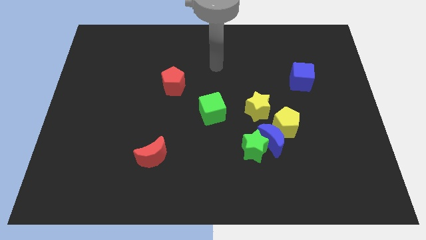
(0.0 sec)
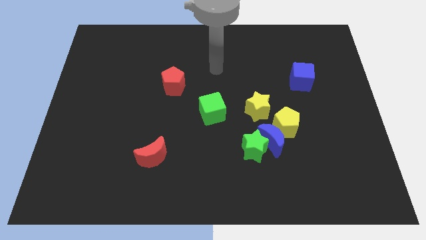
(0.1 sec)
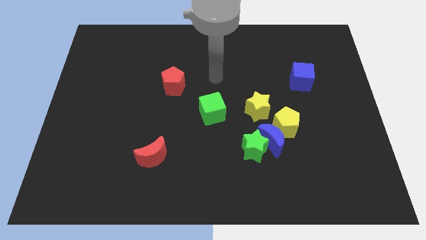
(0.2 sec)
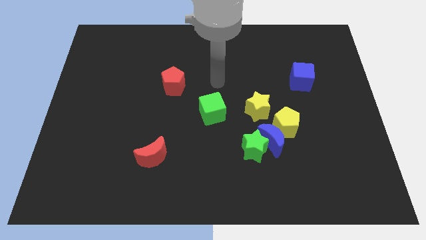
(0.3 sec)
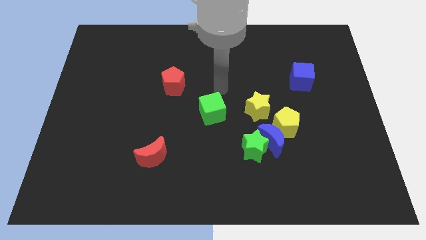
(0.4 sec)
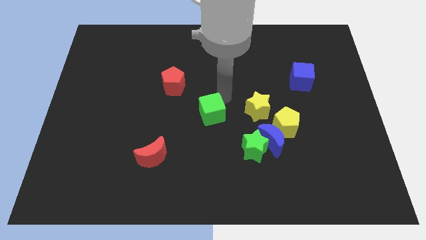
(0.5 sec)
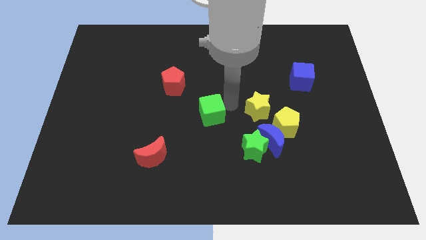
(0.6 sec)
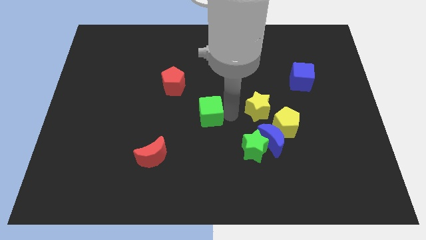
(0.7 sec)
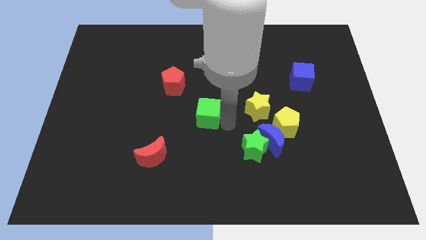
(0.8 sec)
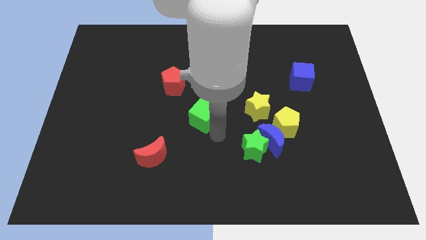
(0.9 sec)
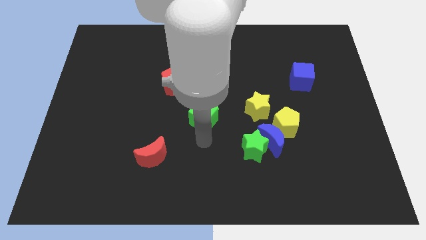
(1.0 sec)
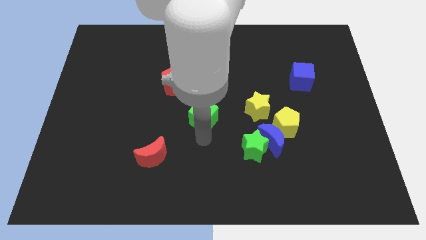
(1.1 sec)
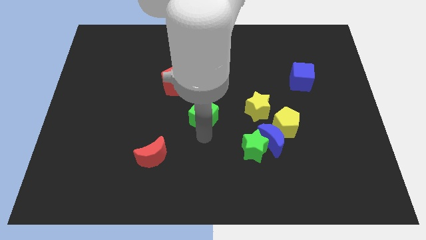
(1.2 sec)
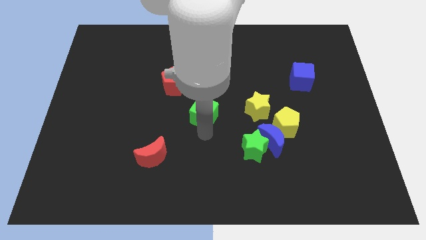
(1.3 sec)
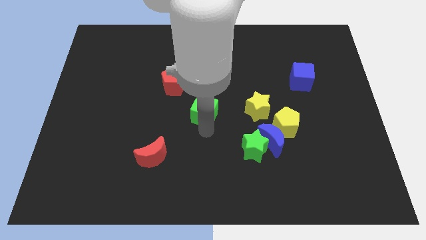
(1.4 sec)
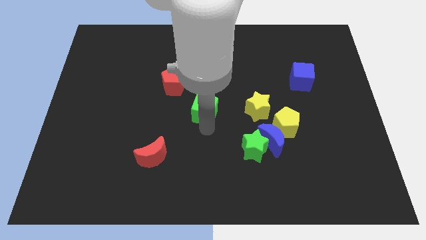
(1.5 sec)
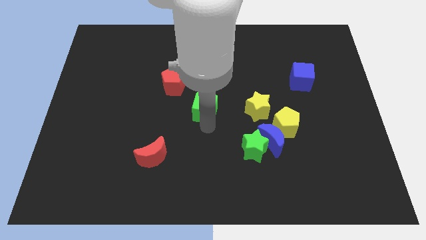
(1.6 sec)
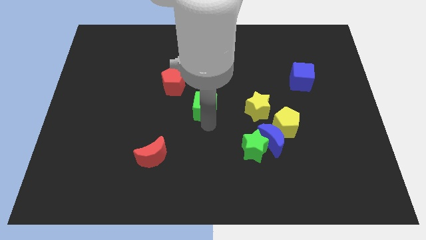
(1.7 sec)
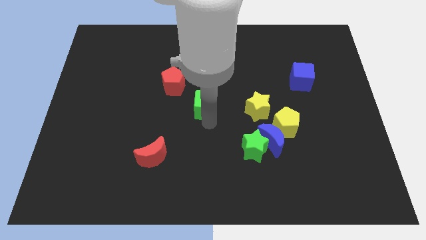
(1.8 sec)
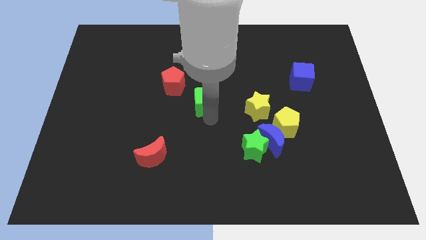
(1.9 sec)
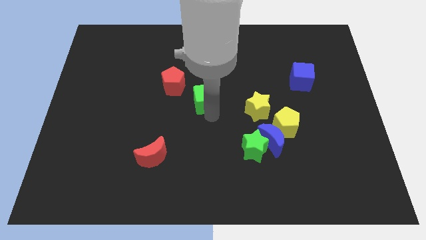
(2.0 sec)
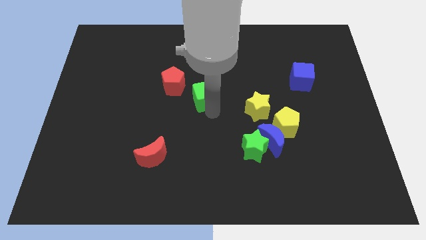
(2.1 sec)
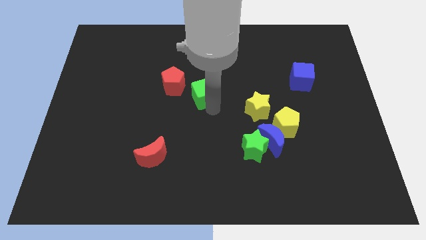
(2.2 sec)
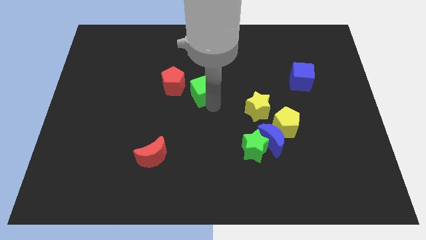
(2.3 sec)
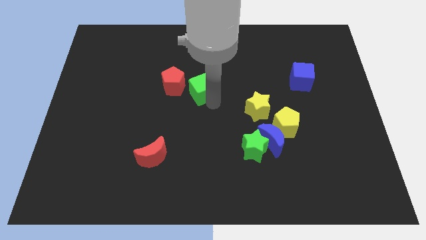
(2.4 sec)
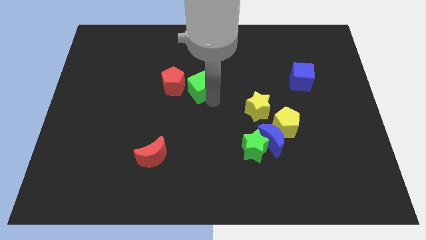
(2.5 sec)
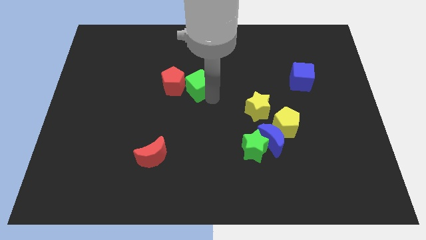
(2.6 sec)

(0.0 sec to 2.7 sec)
move the green cube a little up and left diagonally

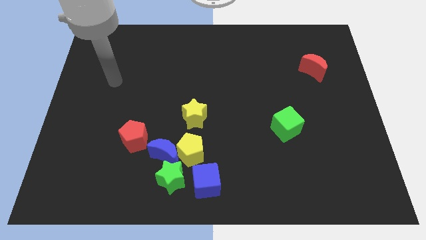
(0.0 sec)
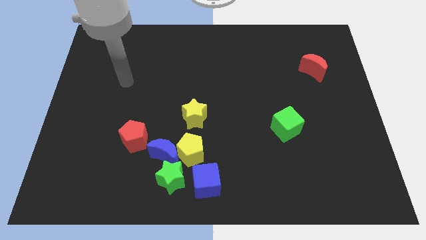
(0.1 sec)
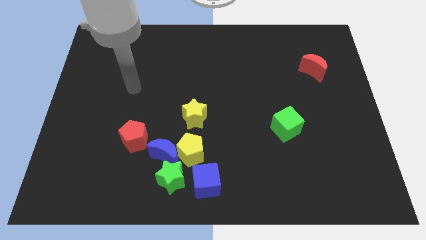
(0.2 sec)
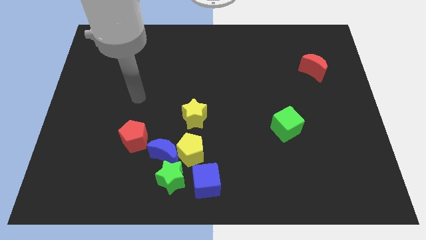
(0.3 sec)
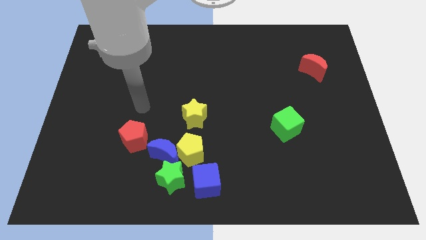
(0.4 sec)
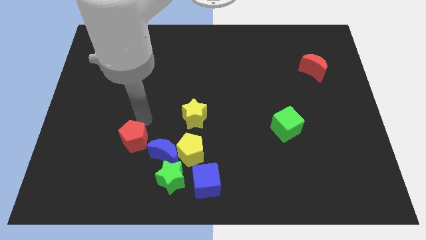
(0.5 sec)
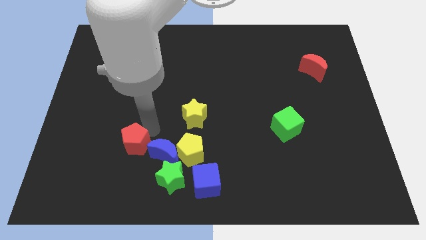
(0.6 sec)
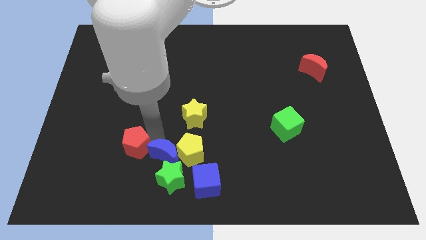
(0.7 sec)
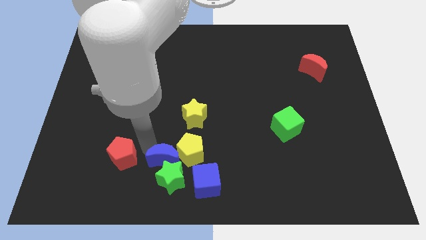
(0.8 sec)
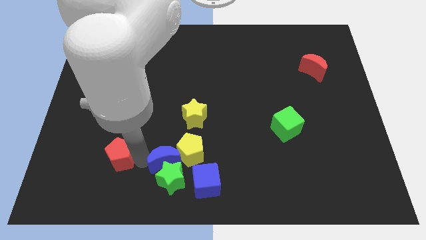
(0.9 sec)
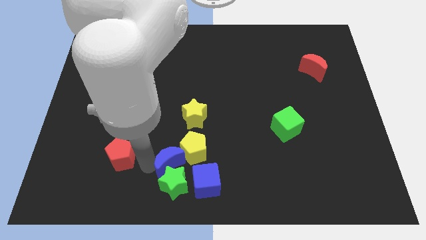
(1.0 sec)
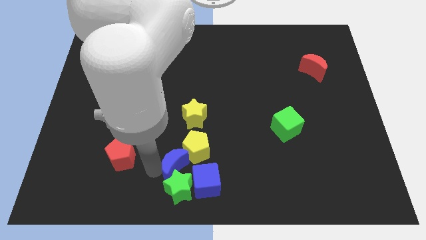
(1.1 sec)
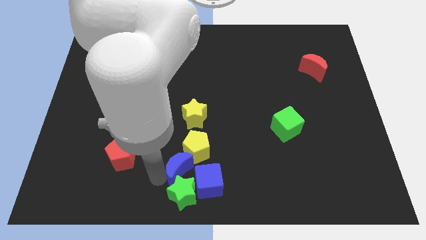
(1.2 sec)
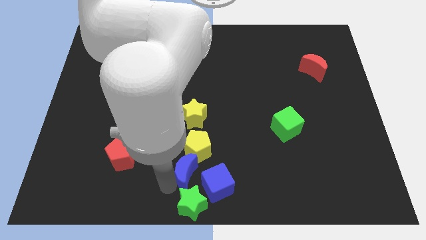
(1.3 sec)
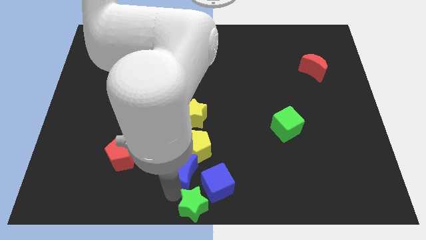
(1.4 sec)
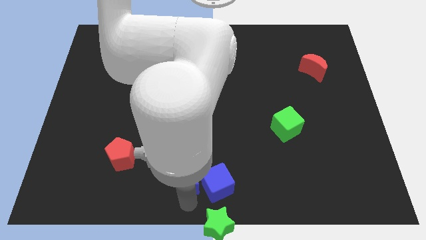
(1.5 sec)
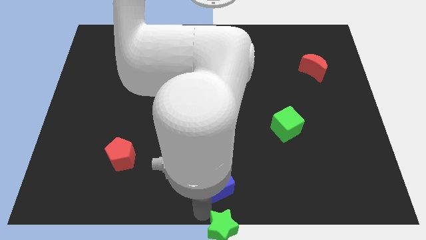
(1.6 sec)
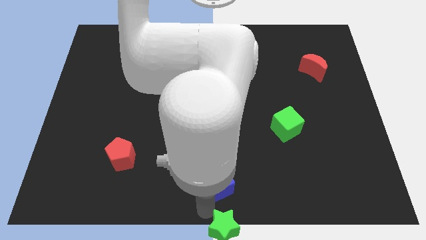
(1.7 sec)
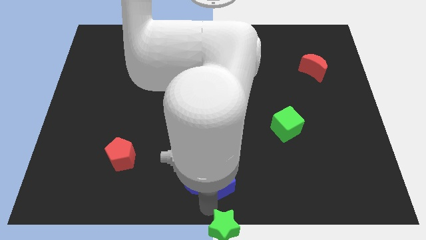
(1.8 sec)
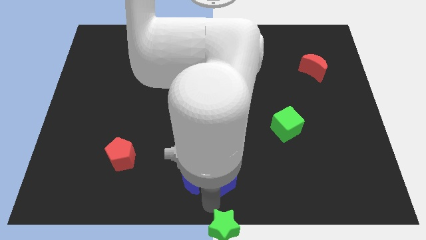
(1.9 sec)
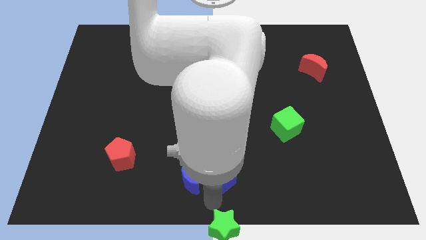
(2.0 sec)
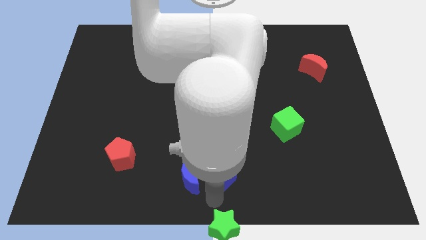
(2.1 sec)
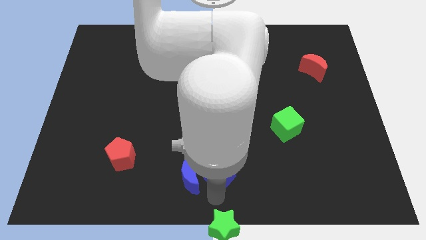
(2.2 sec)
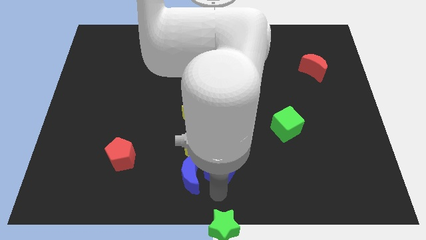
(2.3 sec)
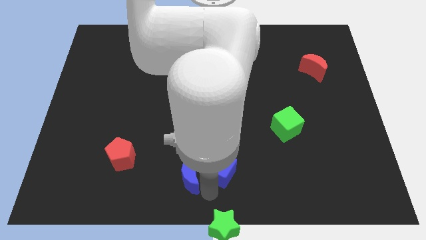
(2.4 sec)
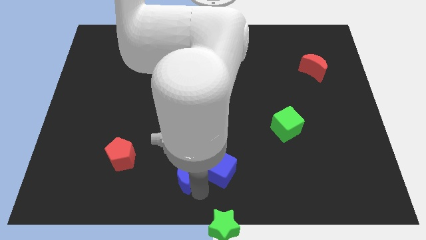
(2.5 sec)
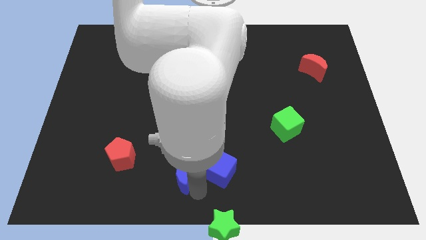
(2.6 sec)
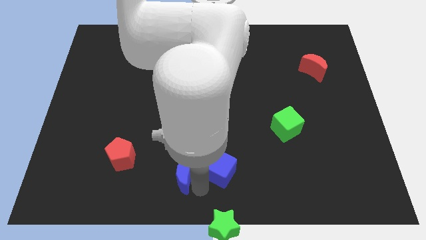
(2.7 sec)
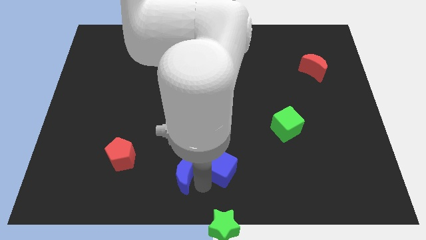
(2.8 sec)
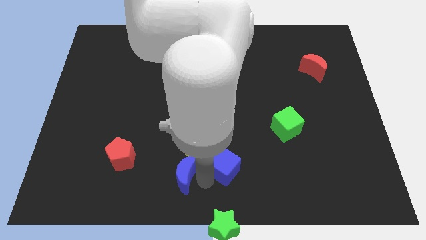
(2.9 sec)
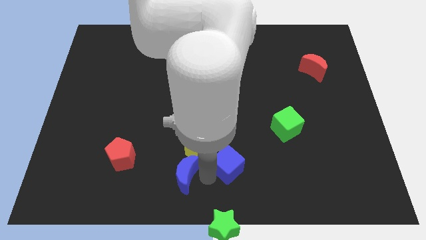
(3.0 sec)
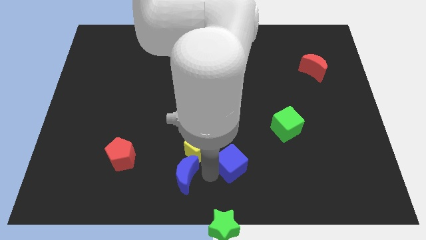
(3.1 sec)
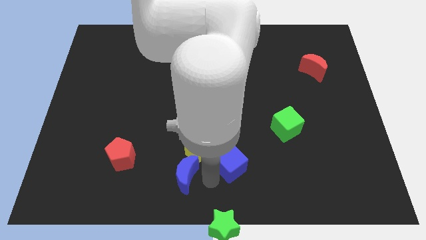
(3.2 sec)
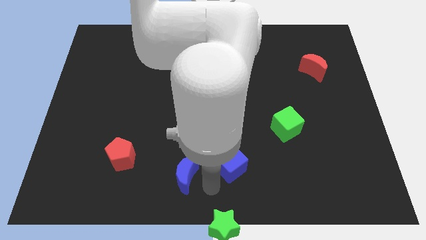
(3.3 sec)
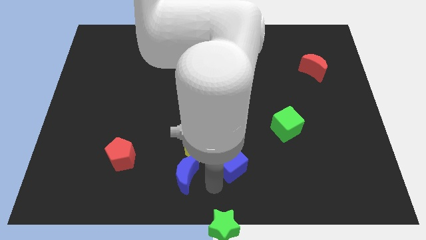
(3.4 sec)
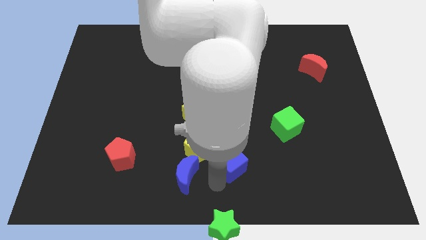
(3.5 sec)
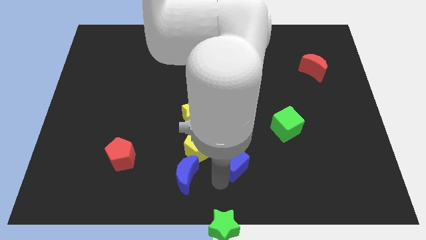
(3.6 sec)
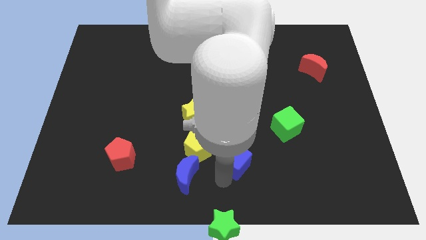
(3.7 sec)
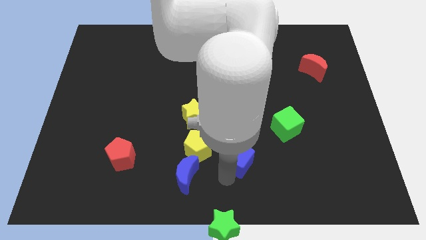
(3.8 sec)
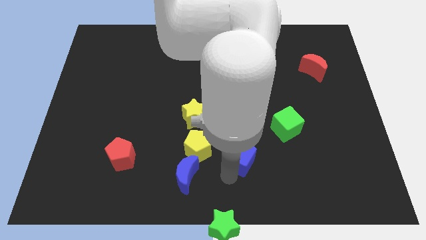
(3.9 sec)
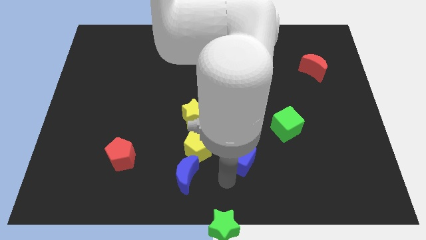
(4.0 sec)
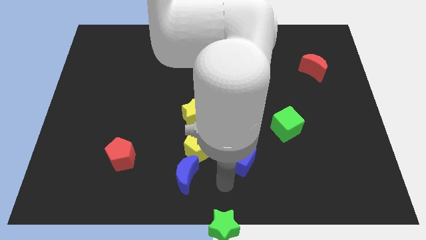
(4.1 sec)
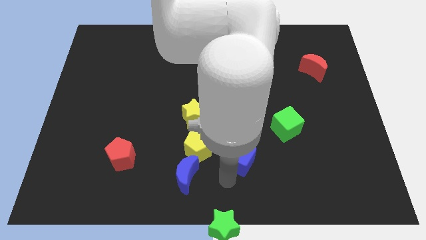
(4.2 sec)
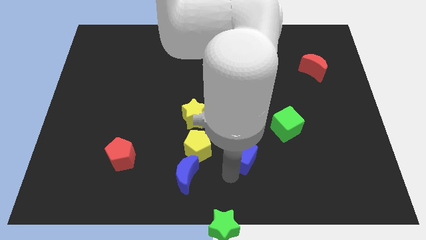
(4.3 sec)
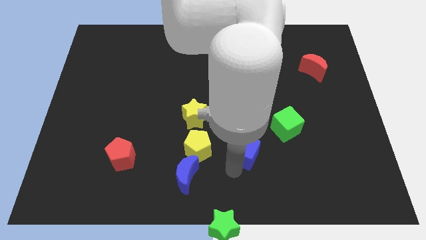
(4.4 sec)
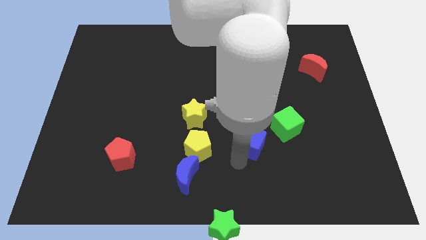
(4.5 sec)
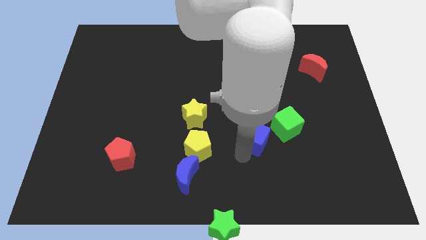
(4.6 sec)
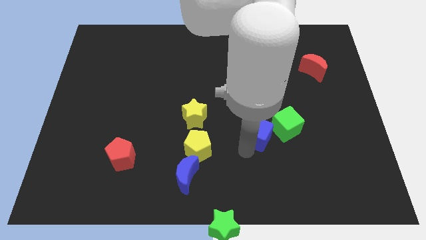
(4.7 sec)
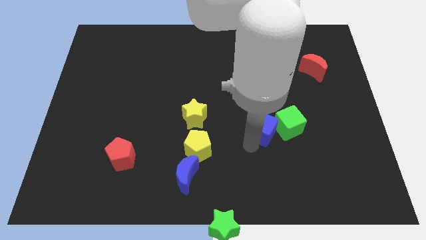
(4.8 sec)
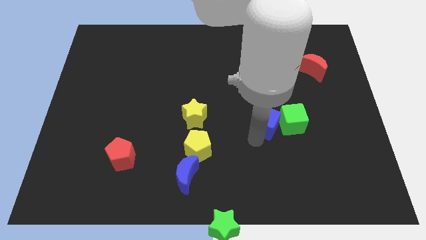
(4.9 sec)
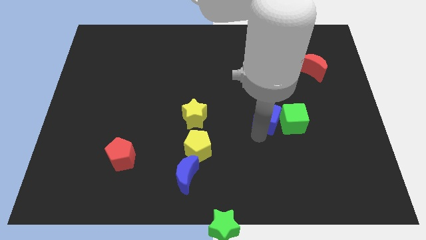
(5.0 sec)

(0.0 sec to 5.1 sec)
move the blue cube diagonally up and to the right

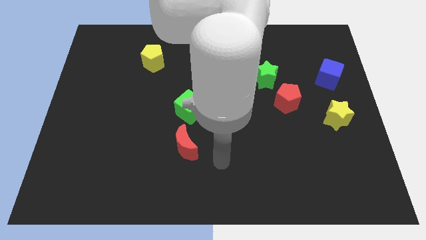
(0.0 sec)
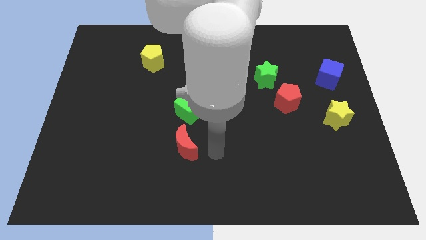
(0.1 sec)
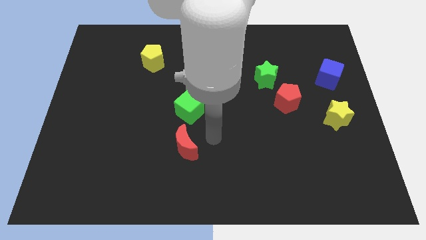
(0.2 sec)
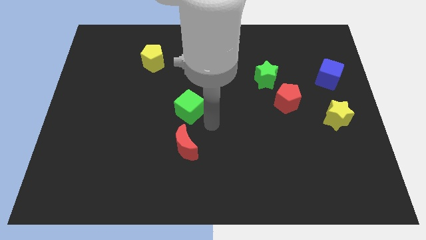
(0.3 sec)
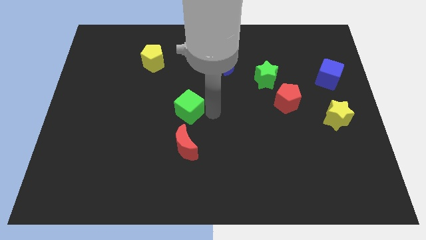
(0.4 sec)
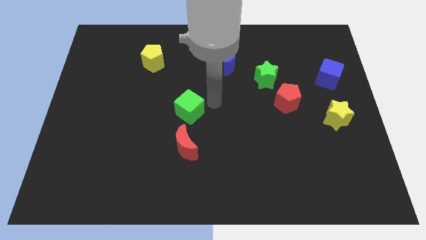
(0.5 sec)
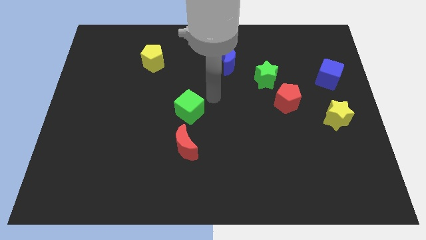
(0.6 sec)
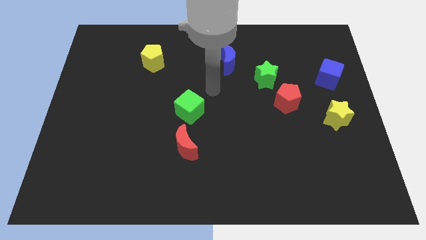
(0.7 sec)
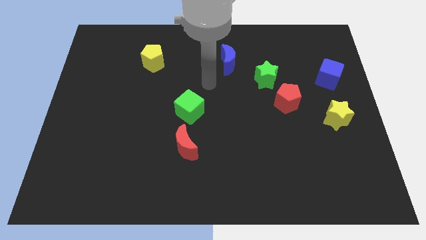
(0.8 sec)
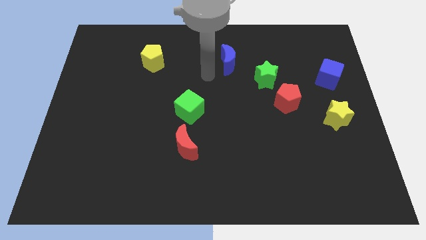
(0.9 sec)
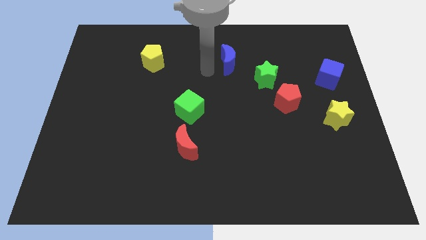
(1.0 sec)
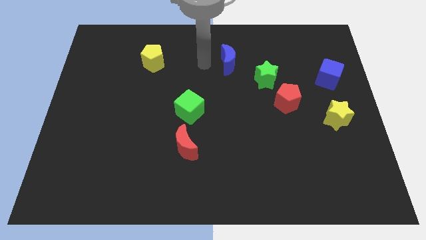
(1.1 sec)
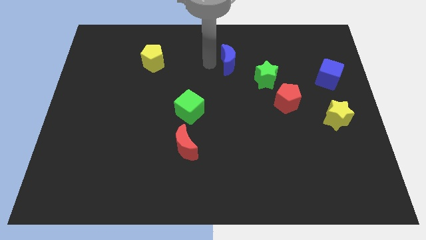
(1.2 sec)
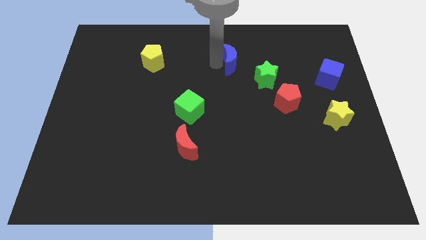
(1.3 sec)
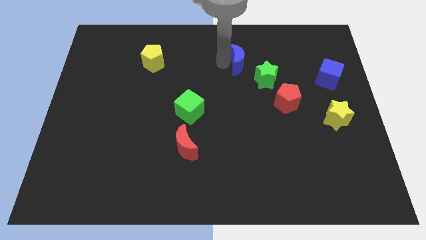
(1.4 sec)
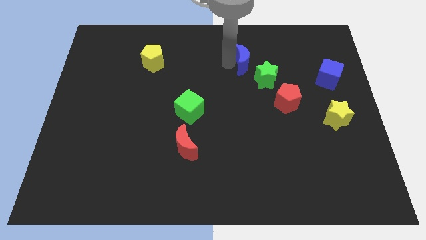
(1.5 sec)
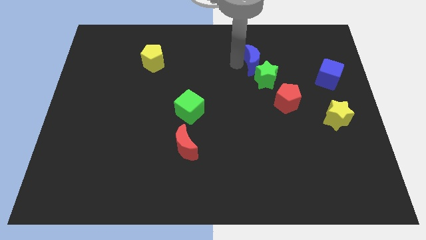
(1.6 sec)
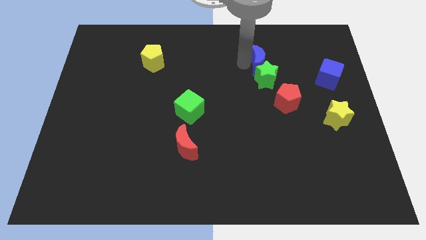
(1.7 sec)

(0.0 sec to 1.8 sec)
push the blue moon right slightly
